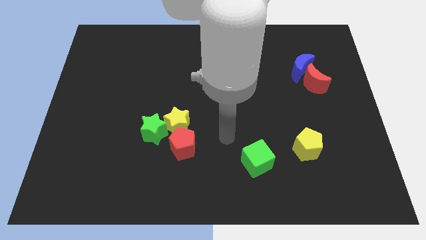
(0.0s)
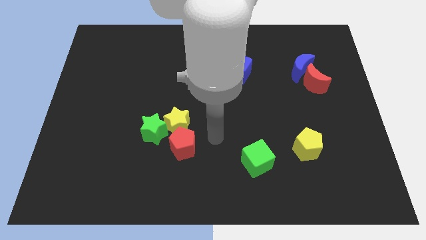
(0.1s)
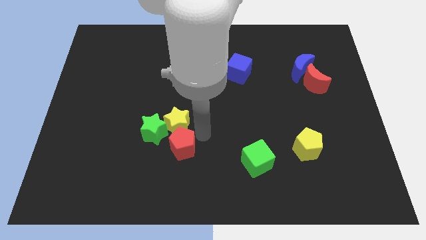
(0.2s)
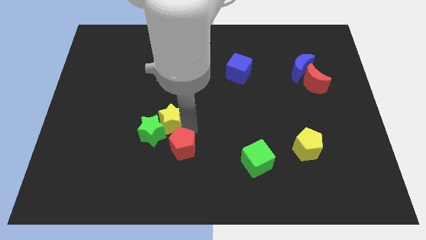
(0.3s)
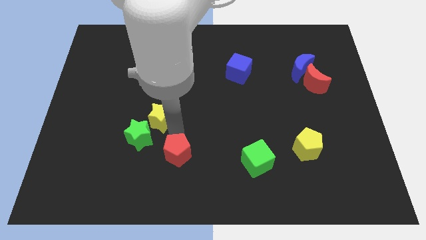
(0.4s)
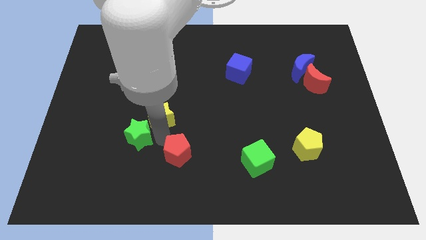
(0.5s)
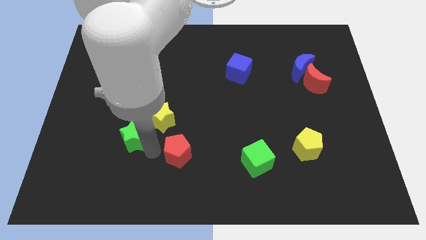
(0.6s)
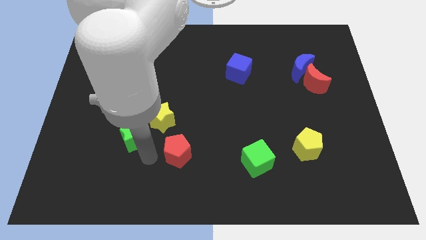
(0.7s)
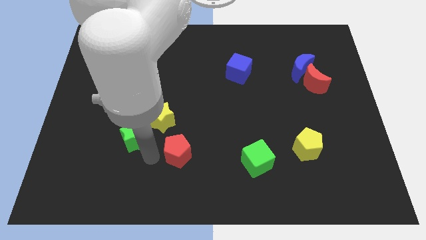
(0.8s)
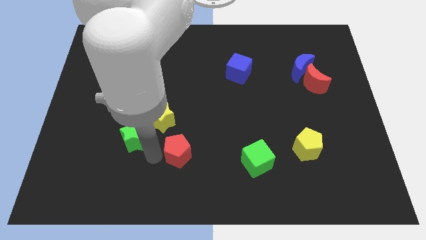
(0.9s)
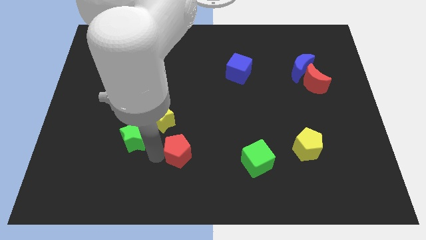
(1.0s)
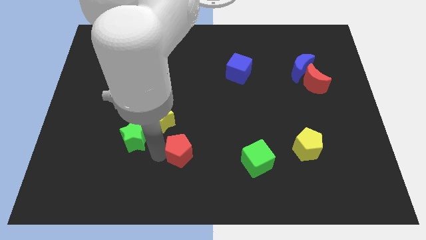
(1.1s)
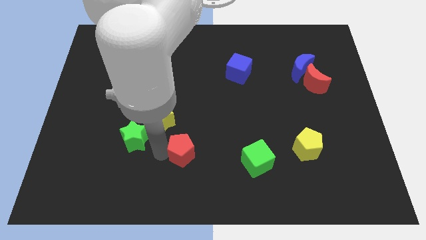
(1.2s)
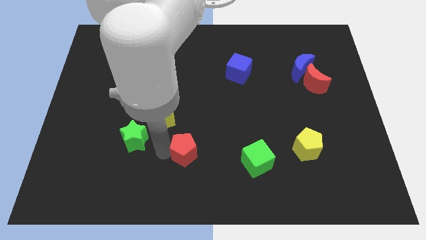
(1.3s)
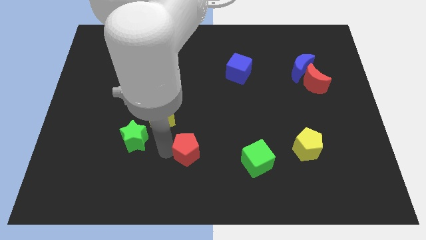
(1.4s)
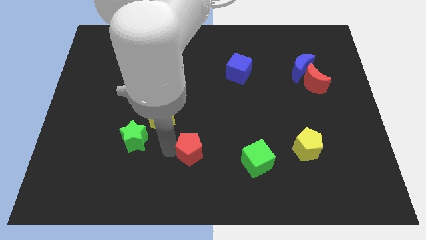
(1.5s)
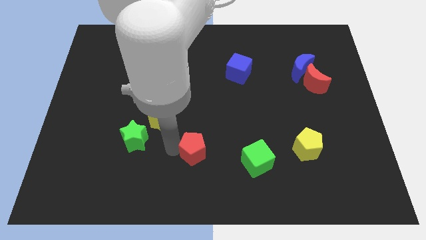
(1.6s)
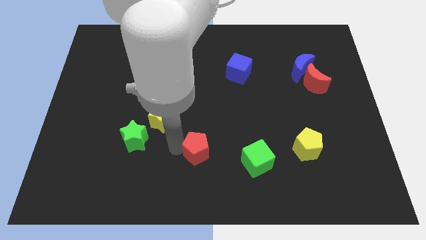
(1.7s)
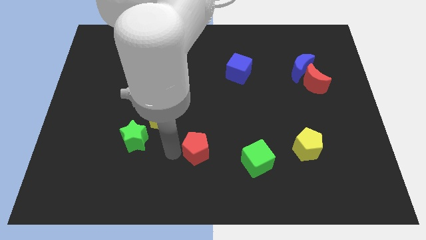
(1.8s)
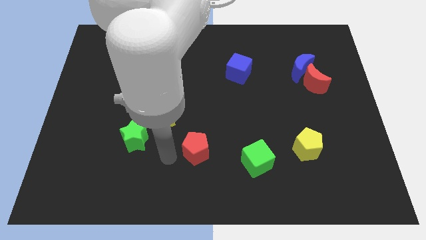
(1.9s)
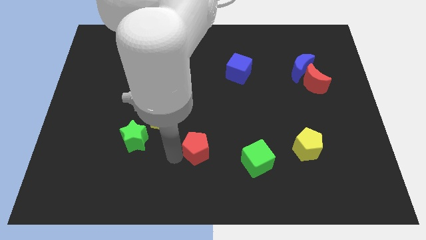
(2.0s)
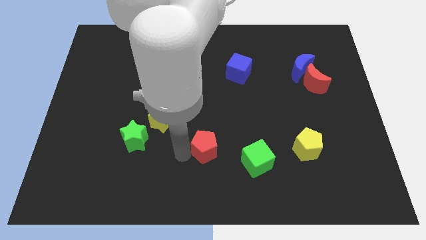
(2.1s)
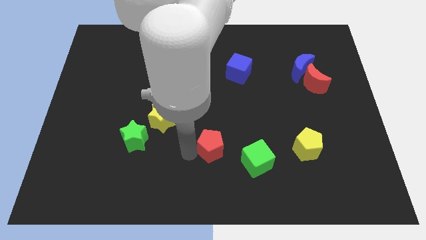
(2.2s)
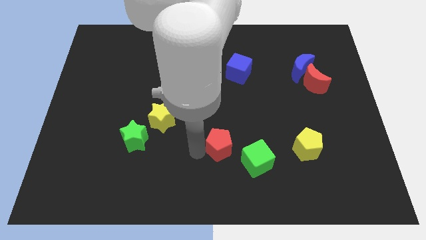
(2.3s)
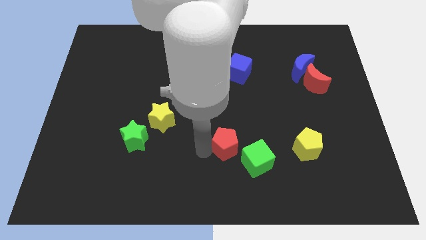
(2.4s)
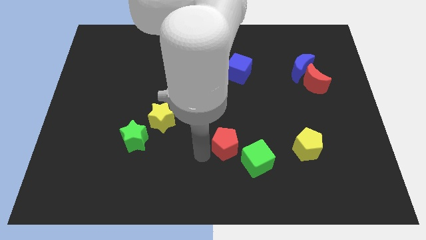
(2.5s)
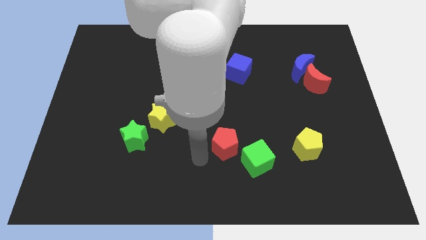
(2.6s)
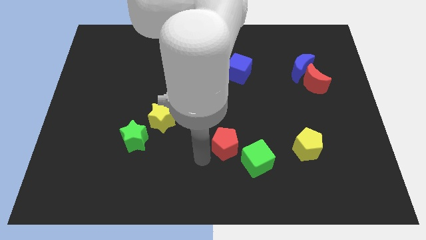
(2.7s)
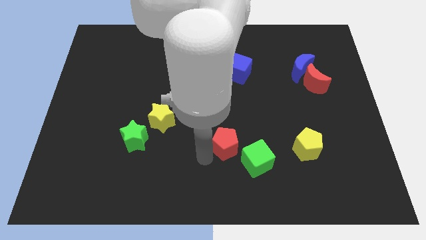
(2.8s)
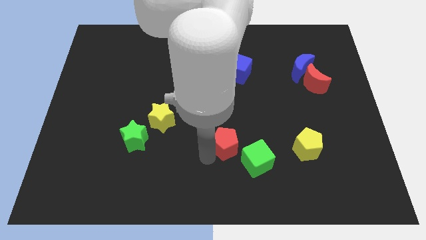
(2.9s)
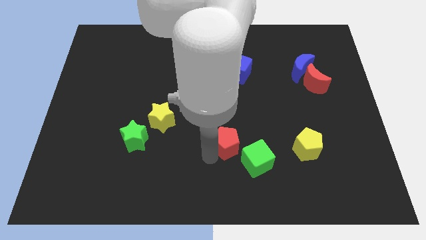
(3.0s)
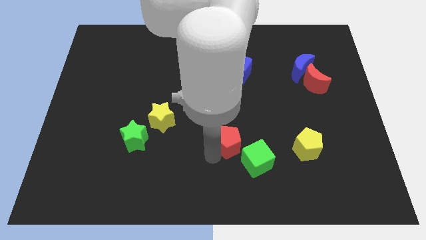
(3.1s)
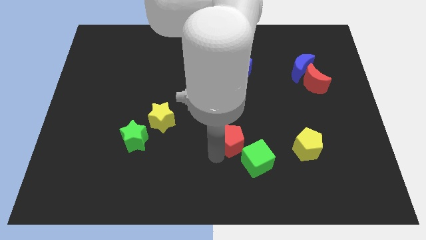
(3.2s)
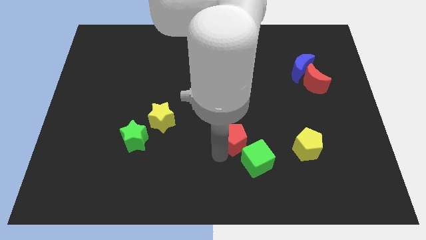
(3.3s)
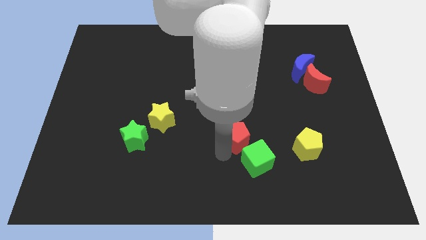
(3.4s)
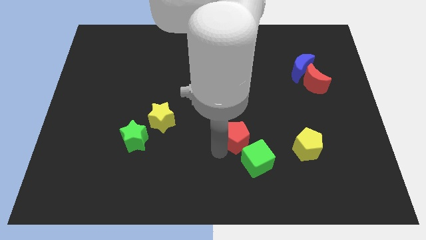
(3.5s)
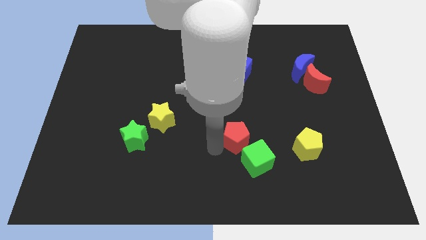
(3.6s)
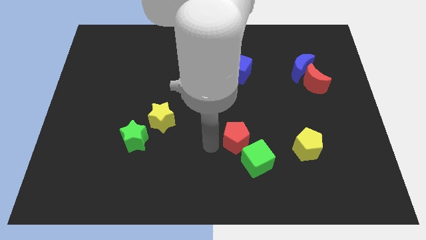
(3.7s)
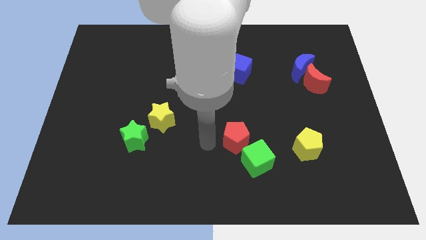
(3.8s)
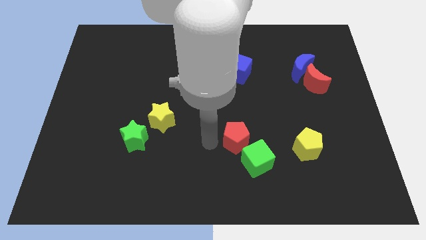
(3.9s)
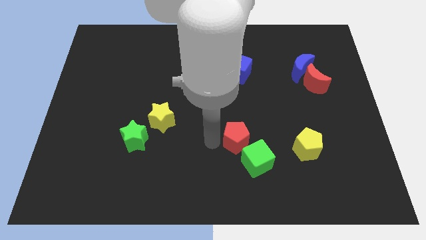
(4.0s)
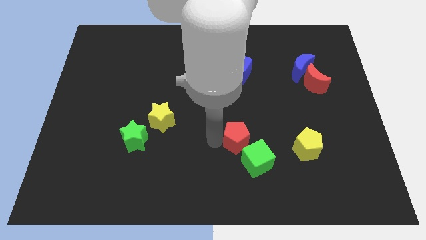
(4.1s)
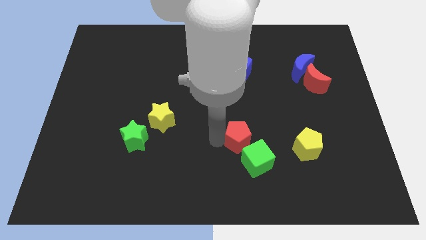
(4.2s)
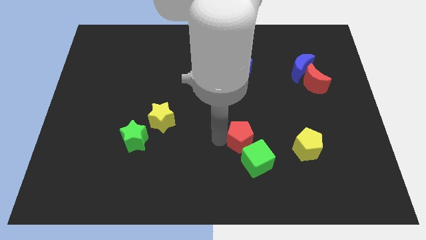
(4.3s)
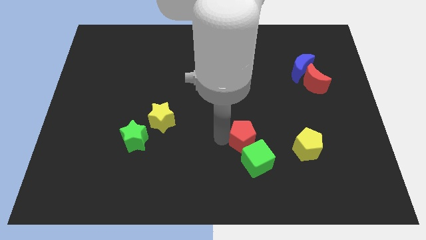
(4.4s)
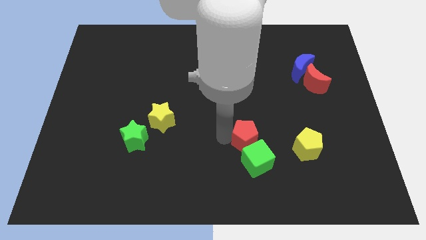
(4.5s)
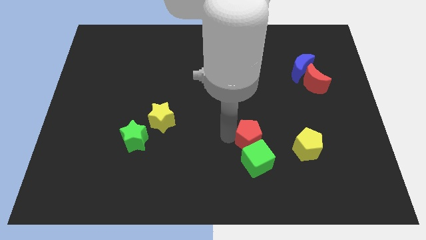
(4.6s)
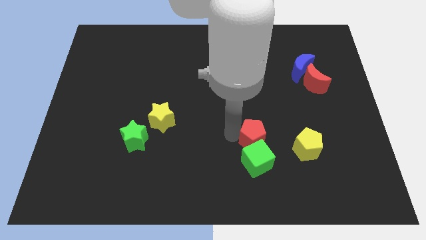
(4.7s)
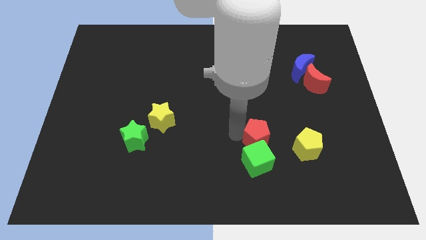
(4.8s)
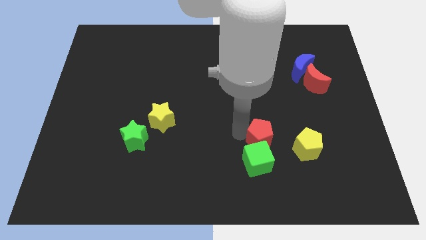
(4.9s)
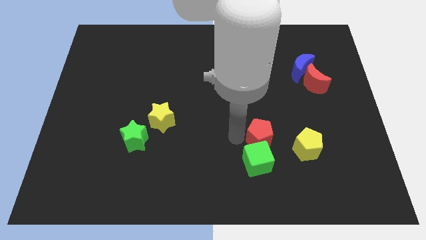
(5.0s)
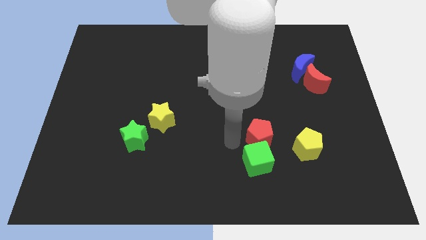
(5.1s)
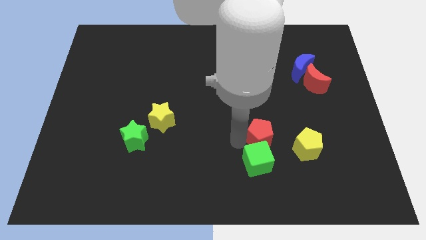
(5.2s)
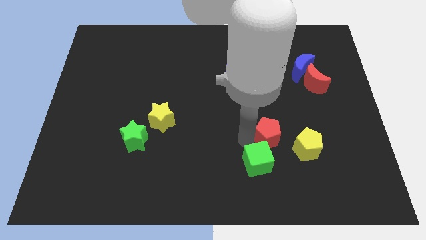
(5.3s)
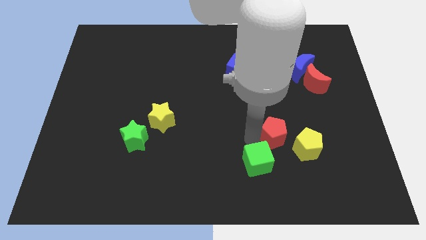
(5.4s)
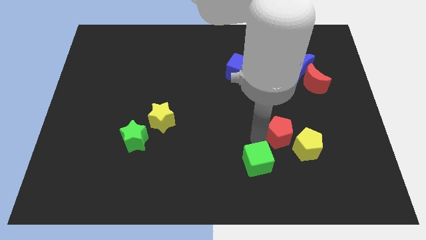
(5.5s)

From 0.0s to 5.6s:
push the red pentagon right

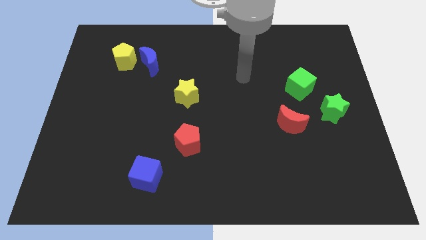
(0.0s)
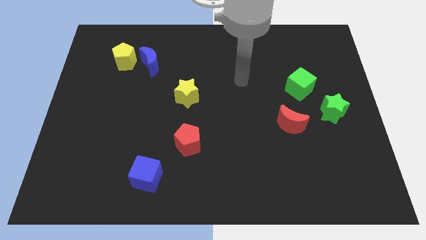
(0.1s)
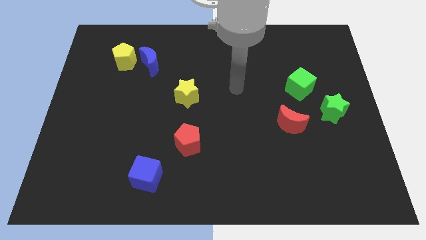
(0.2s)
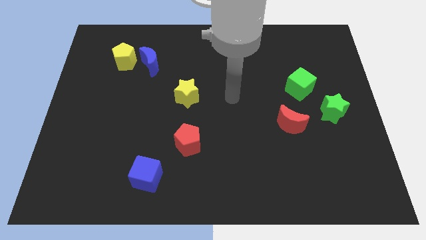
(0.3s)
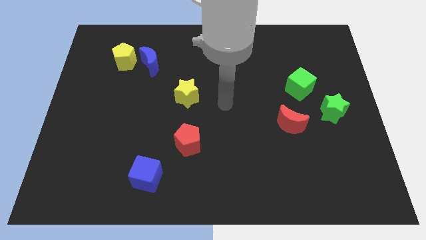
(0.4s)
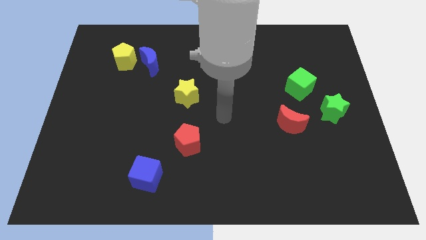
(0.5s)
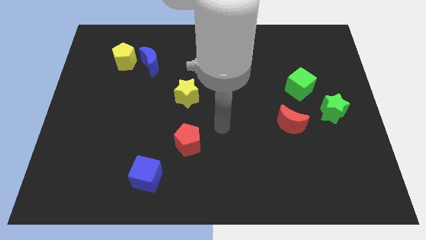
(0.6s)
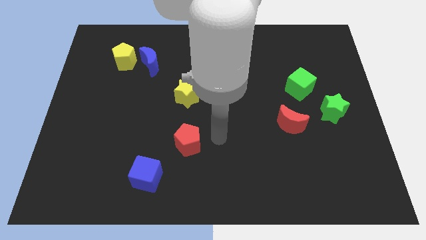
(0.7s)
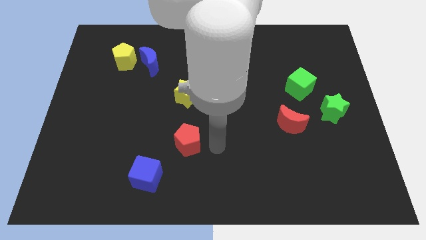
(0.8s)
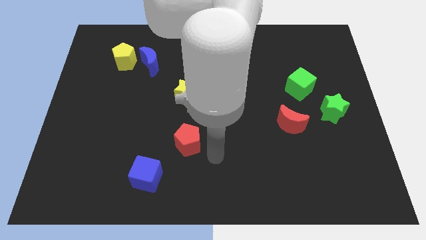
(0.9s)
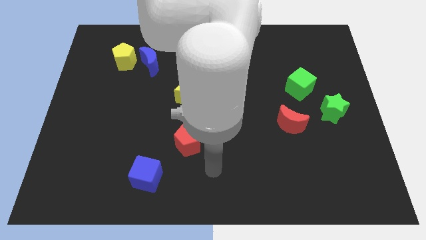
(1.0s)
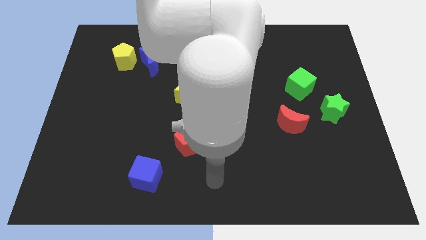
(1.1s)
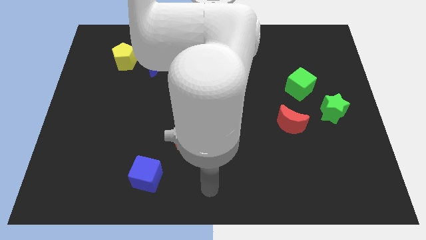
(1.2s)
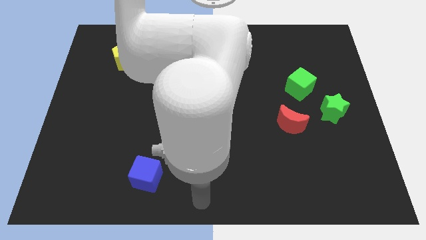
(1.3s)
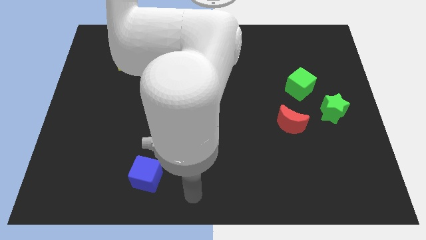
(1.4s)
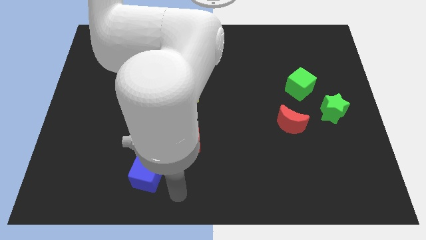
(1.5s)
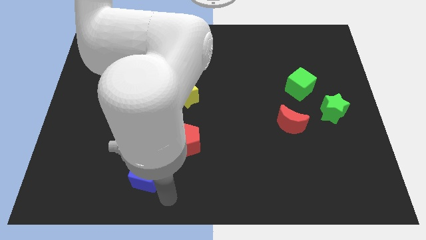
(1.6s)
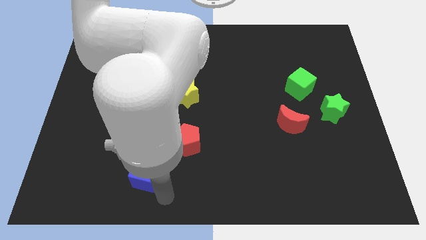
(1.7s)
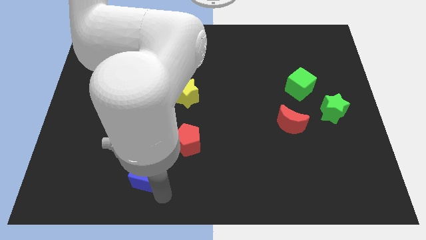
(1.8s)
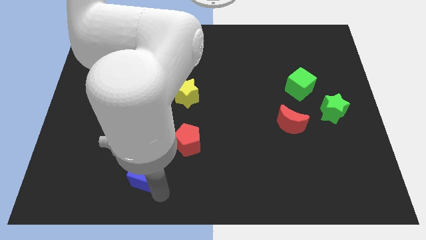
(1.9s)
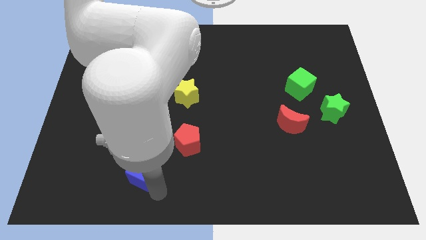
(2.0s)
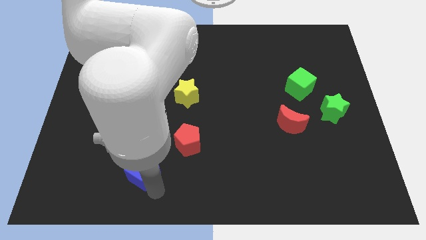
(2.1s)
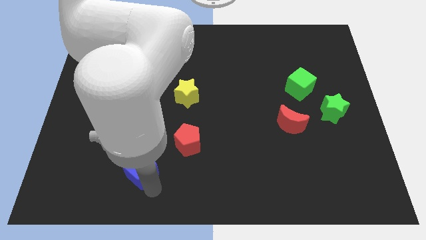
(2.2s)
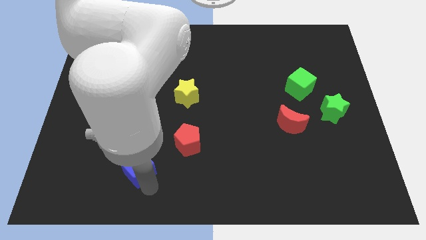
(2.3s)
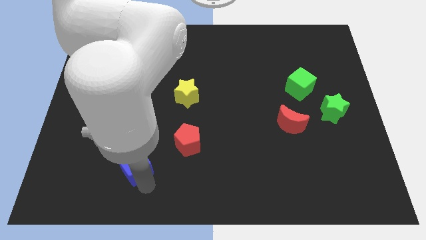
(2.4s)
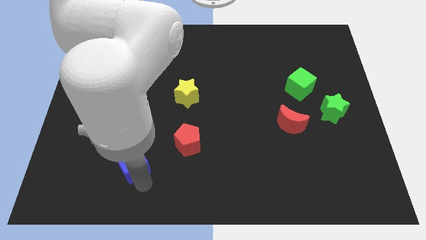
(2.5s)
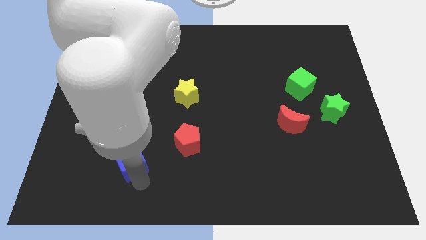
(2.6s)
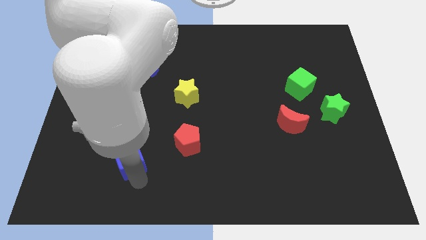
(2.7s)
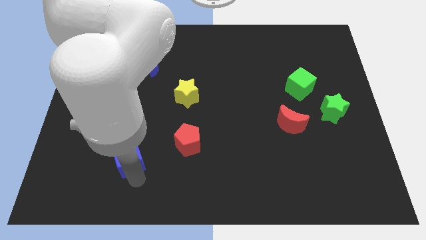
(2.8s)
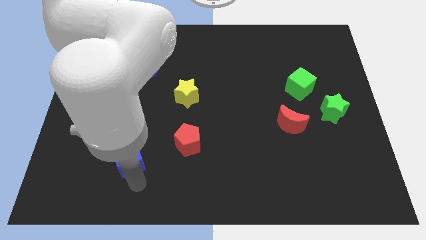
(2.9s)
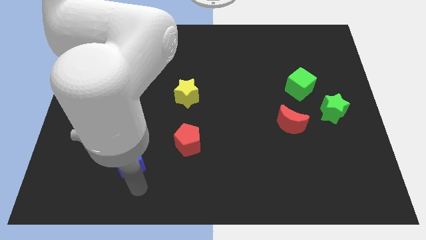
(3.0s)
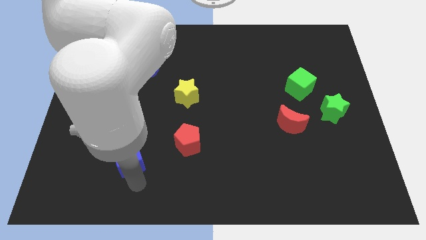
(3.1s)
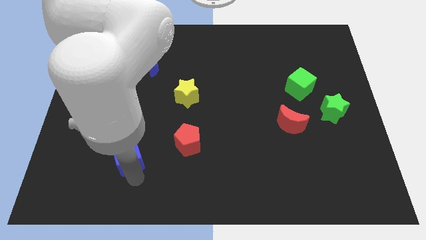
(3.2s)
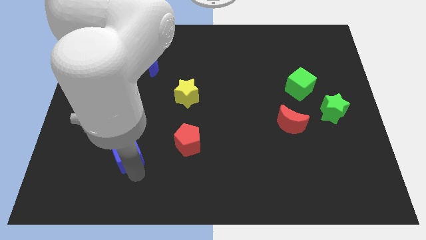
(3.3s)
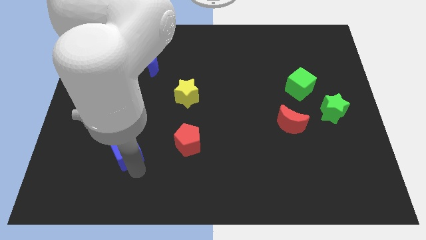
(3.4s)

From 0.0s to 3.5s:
move the blue cube diagonally upwards and left a little
